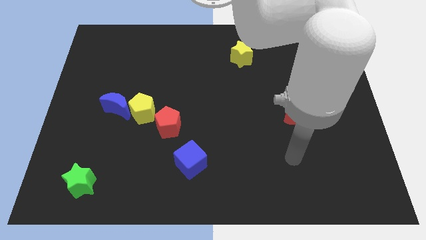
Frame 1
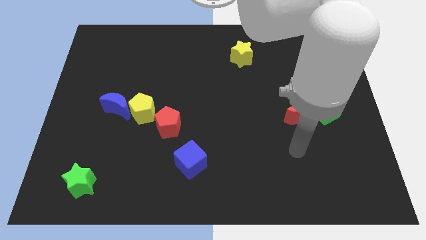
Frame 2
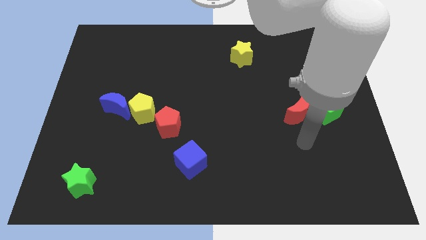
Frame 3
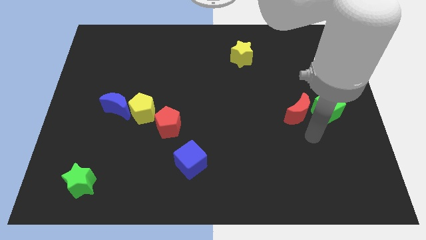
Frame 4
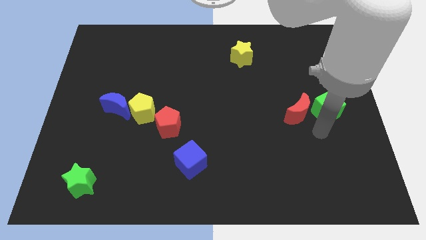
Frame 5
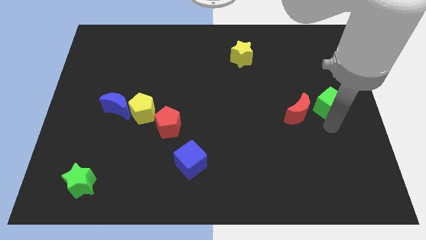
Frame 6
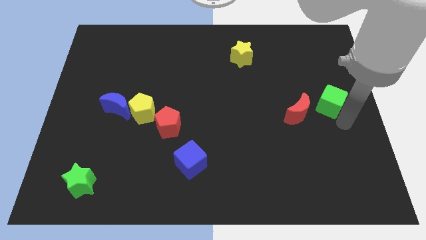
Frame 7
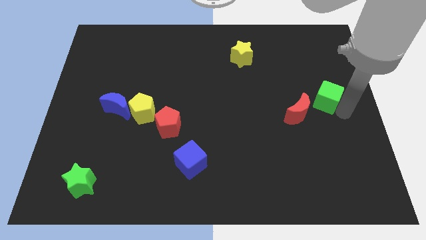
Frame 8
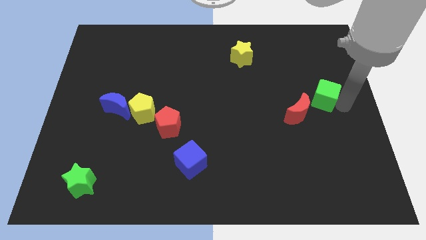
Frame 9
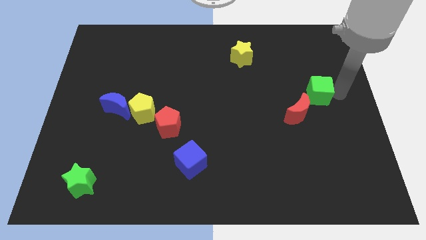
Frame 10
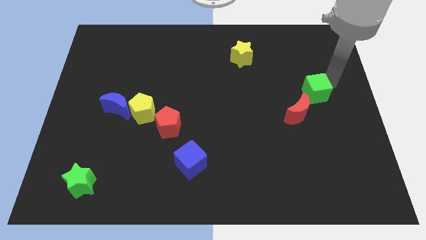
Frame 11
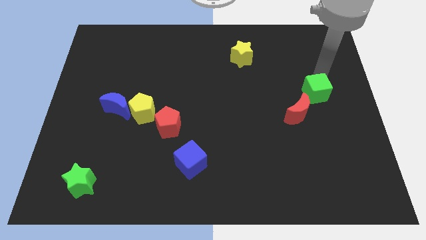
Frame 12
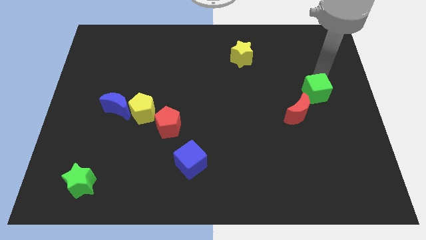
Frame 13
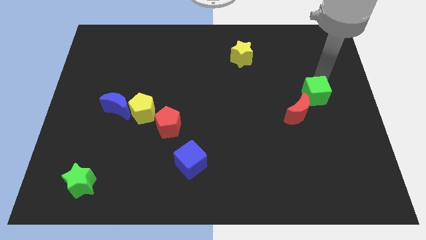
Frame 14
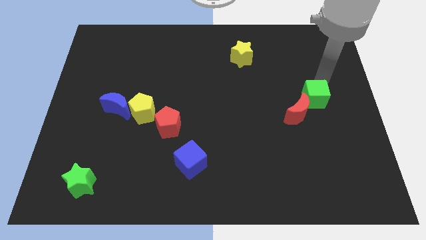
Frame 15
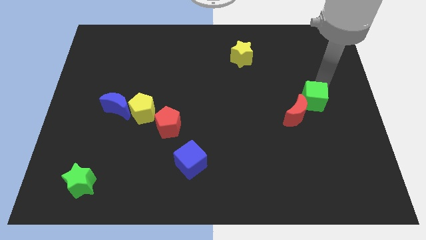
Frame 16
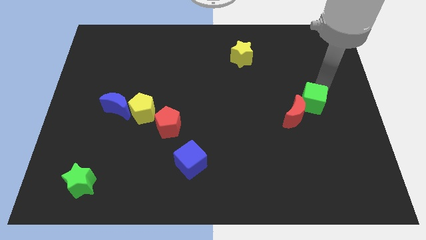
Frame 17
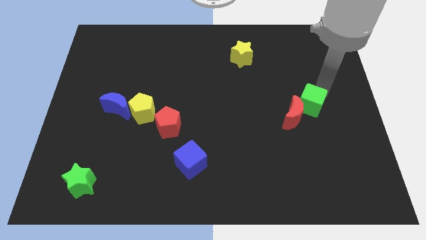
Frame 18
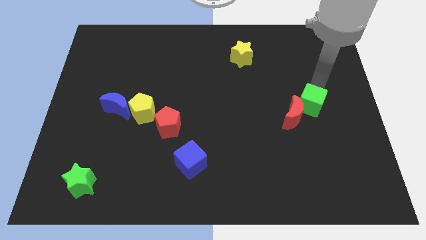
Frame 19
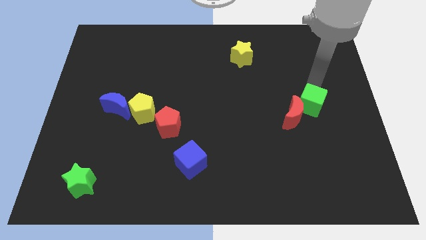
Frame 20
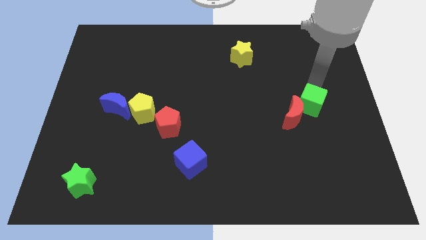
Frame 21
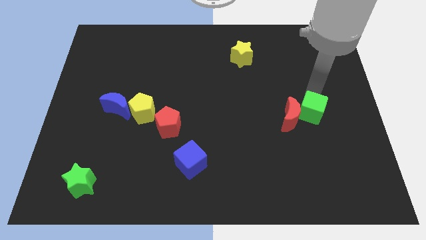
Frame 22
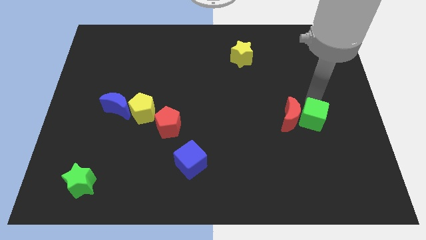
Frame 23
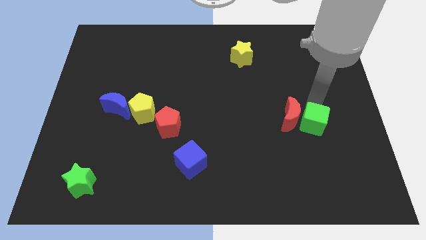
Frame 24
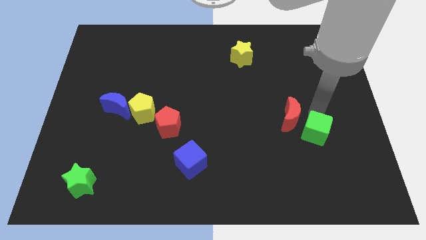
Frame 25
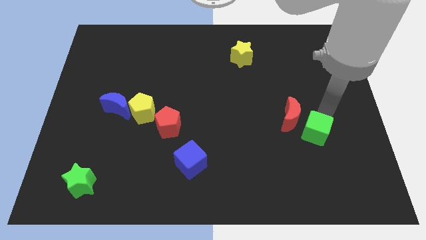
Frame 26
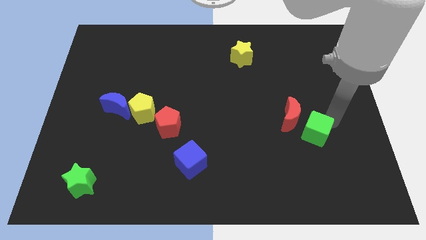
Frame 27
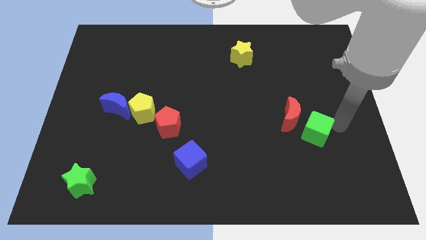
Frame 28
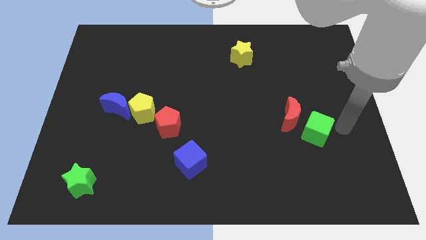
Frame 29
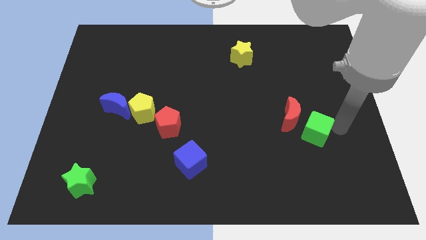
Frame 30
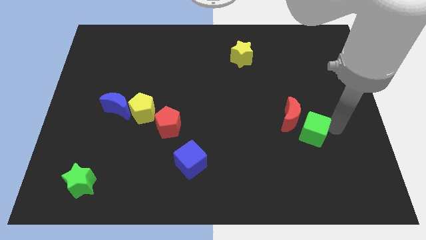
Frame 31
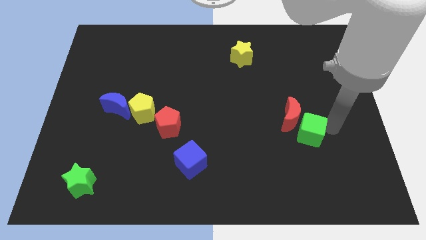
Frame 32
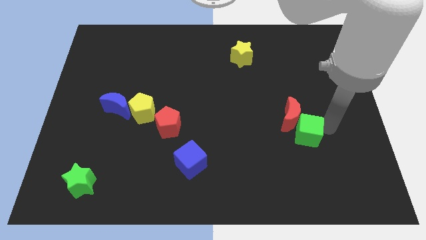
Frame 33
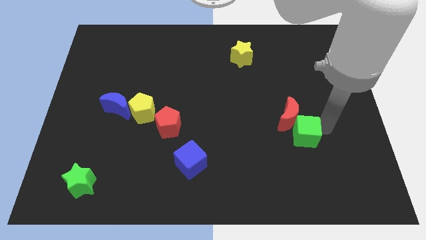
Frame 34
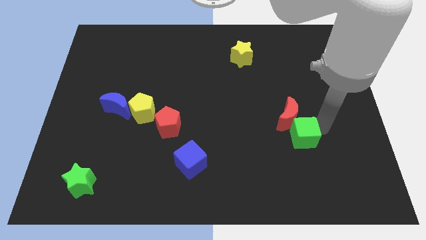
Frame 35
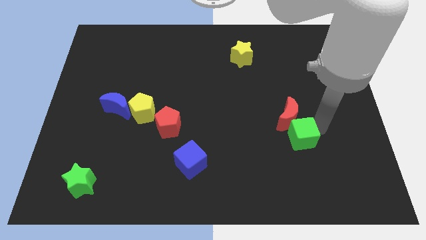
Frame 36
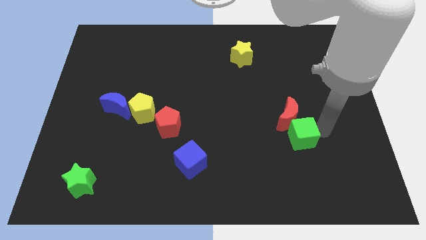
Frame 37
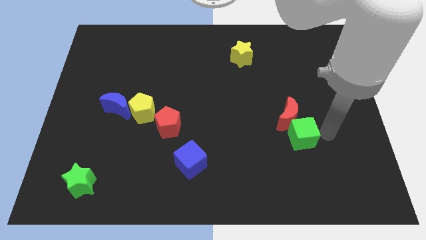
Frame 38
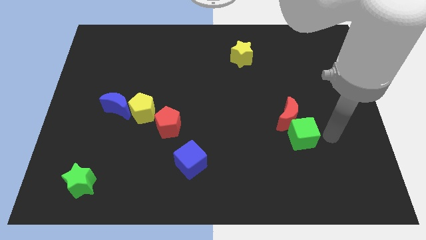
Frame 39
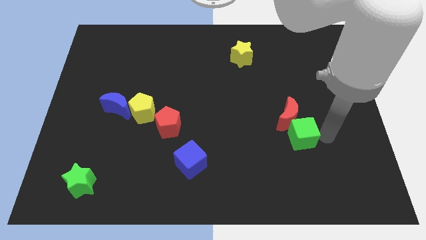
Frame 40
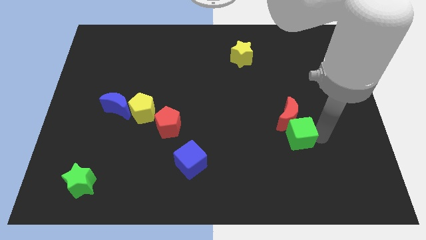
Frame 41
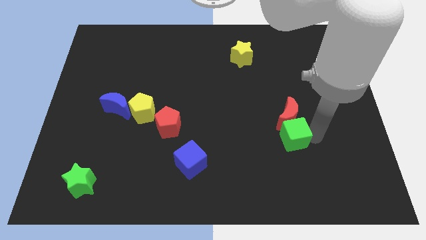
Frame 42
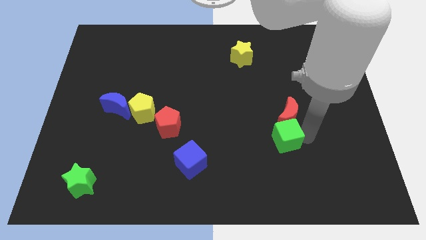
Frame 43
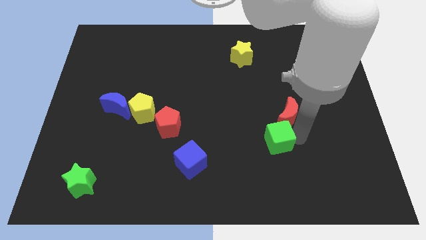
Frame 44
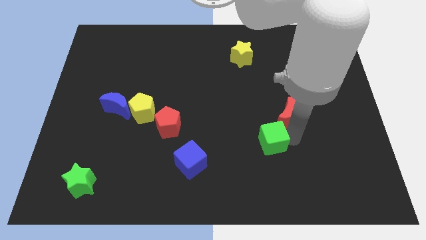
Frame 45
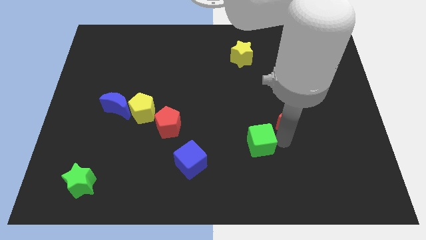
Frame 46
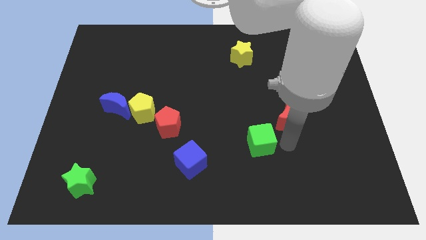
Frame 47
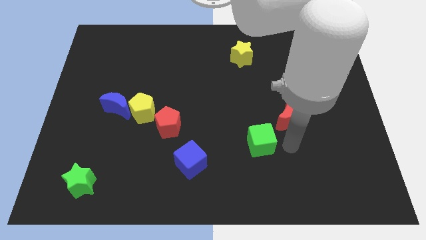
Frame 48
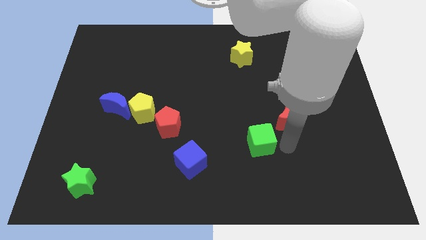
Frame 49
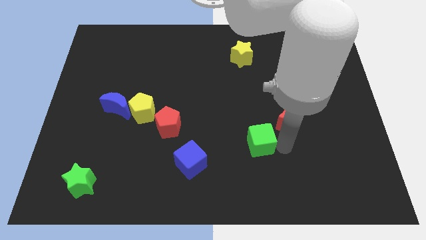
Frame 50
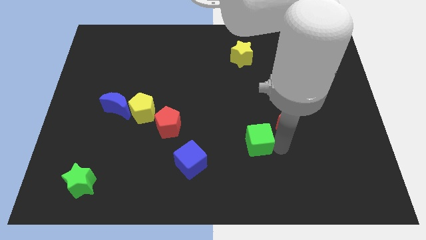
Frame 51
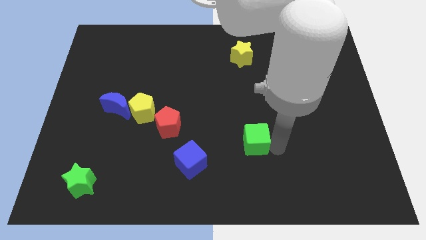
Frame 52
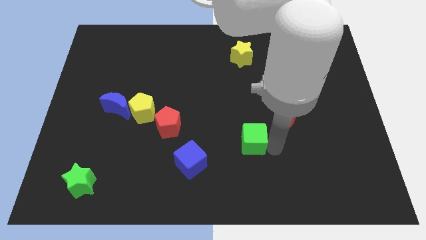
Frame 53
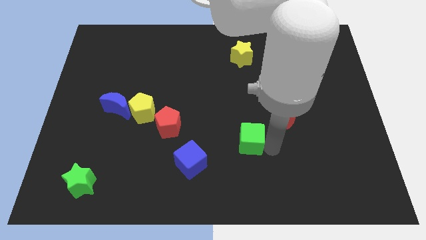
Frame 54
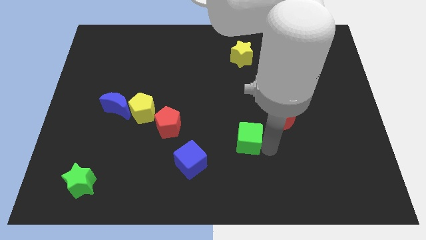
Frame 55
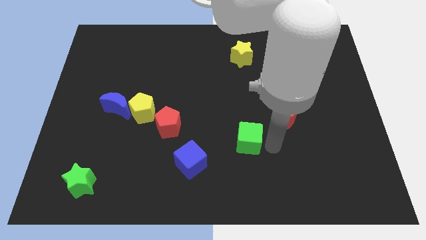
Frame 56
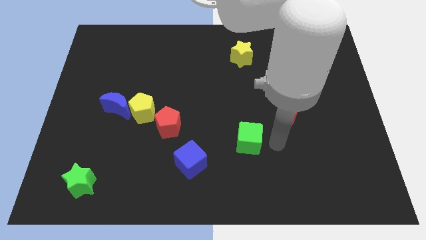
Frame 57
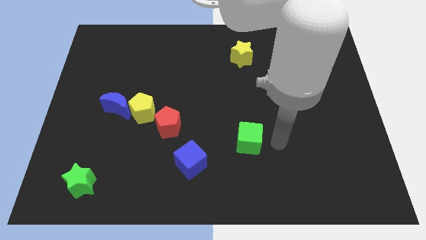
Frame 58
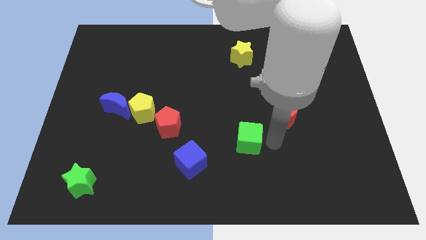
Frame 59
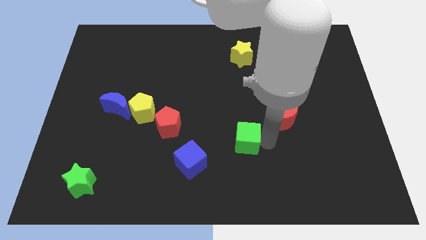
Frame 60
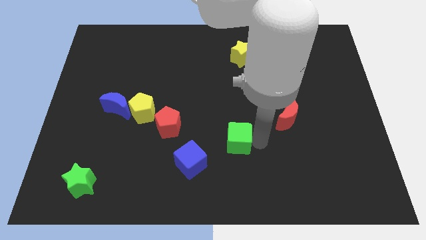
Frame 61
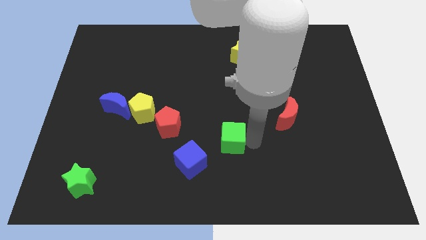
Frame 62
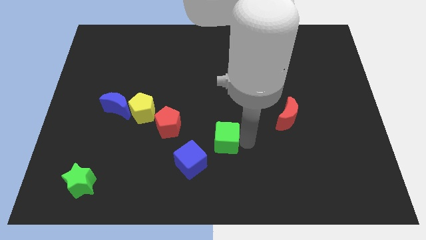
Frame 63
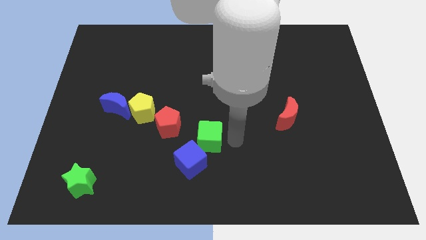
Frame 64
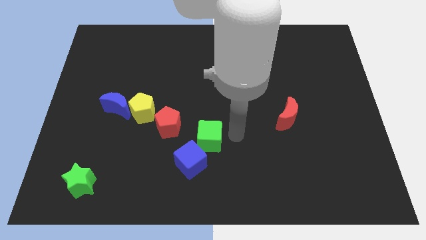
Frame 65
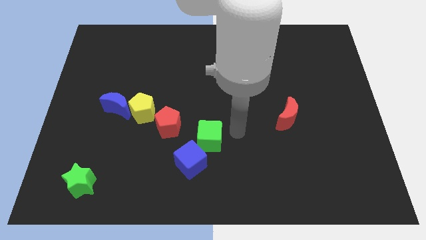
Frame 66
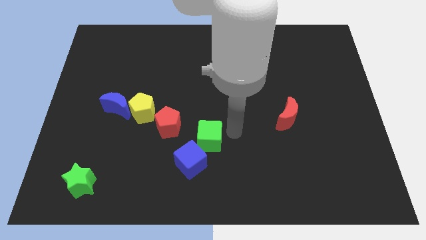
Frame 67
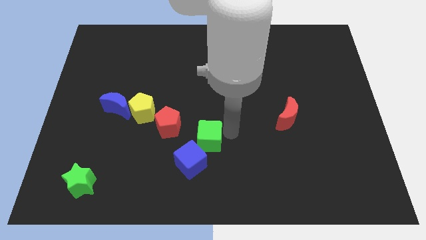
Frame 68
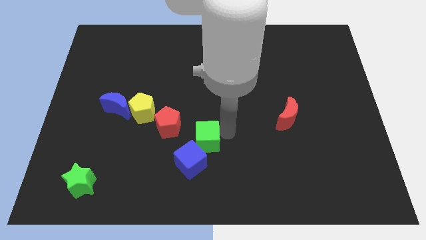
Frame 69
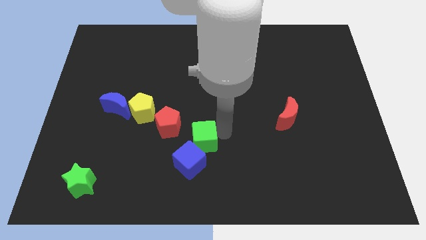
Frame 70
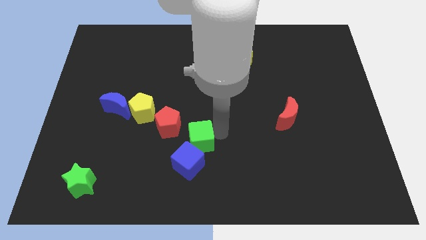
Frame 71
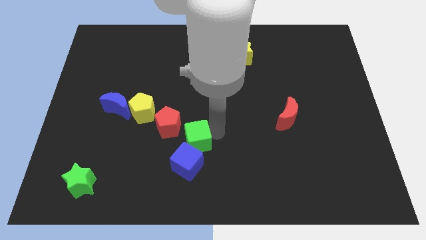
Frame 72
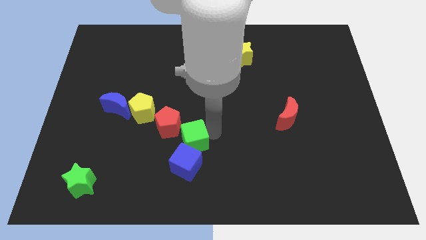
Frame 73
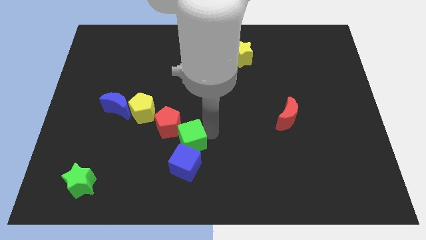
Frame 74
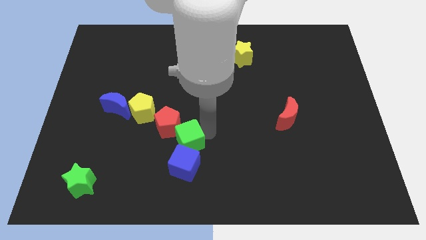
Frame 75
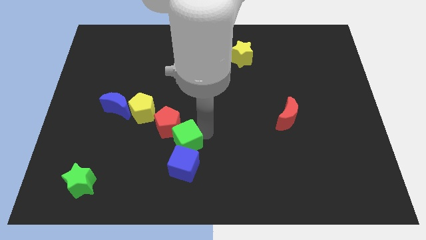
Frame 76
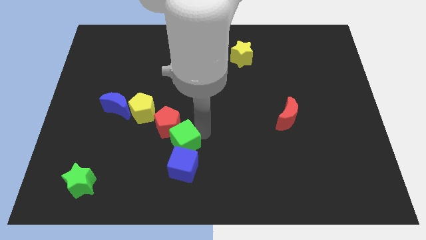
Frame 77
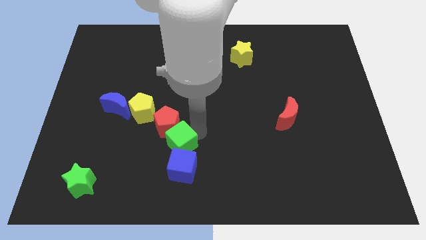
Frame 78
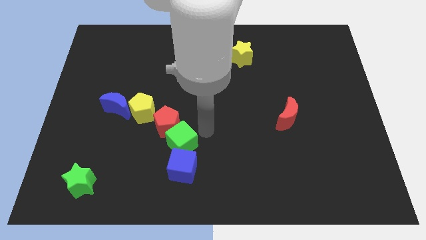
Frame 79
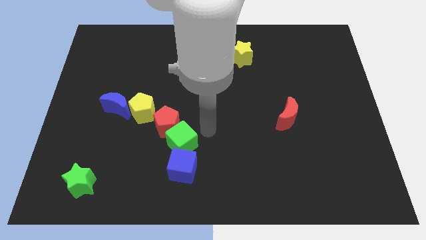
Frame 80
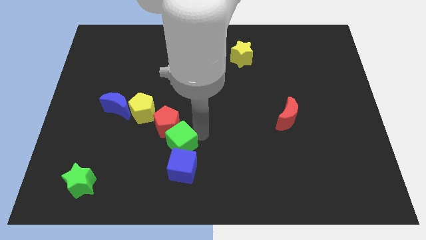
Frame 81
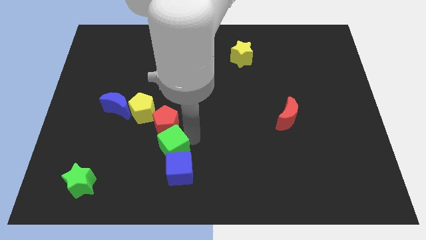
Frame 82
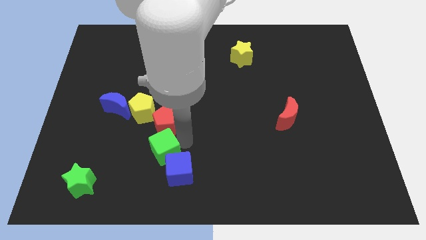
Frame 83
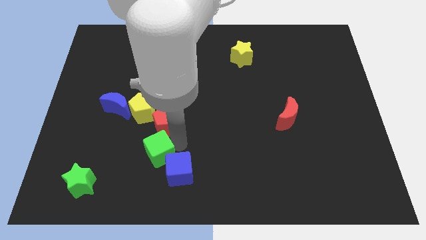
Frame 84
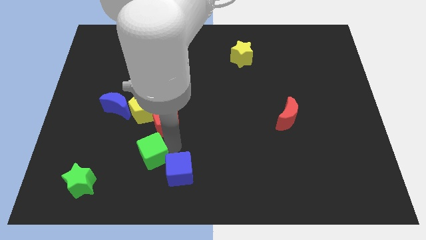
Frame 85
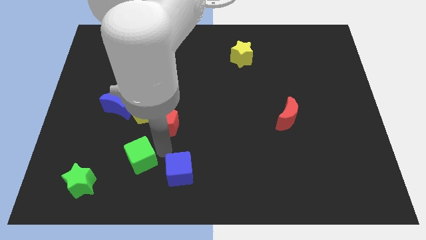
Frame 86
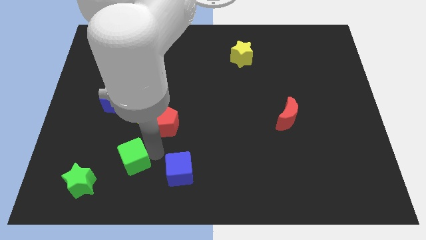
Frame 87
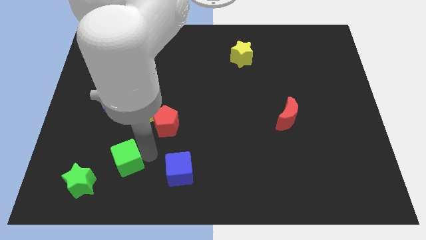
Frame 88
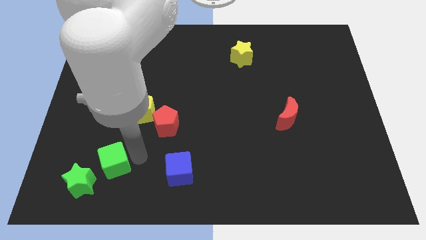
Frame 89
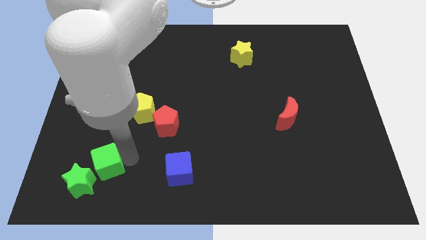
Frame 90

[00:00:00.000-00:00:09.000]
move the green cube next to the green star
